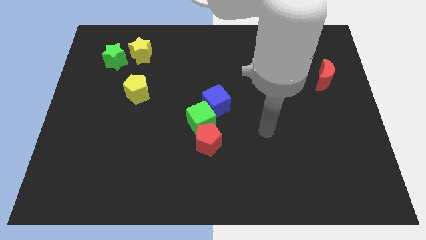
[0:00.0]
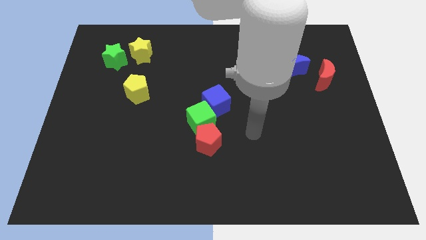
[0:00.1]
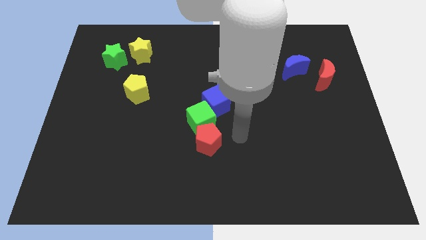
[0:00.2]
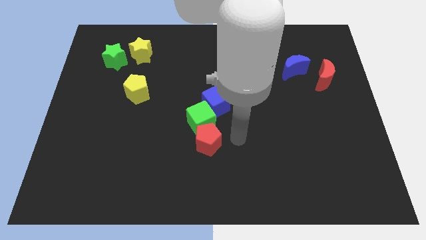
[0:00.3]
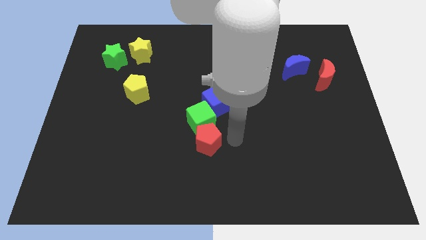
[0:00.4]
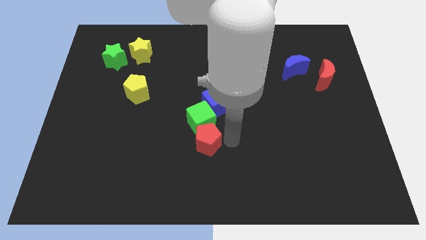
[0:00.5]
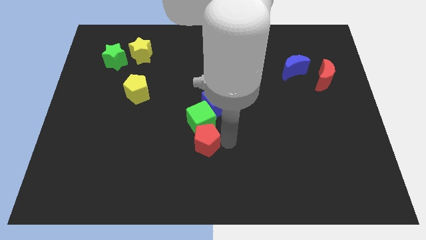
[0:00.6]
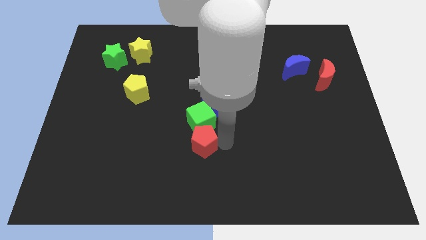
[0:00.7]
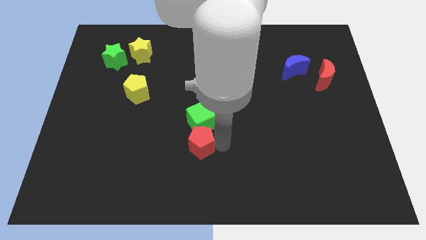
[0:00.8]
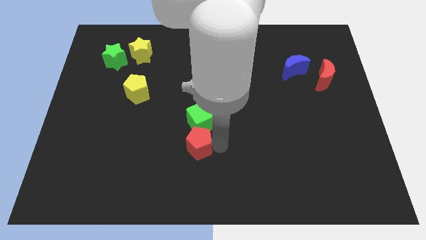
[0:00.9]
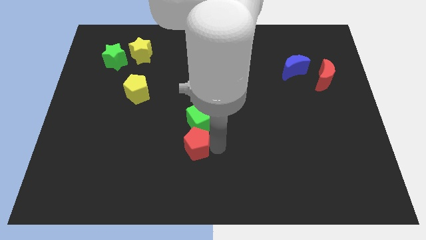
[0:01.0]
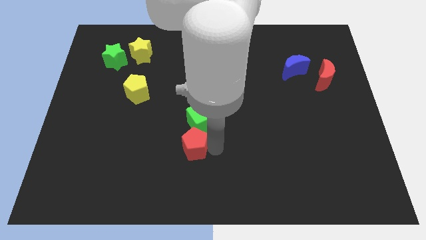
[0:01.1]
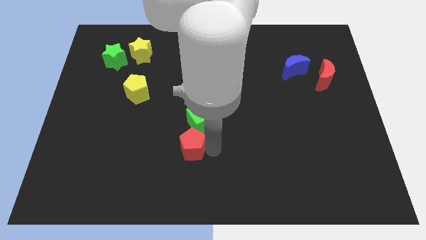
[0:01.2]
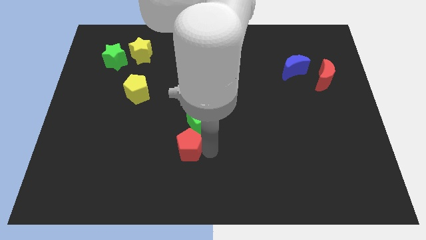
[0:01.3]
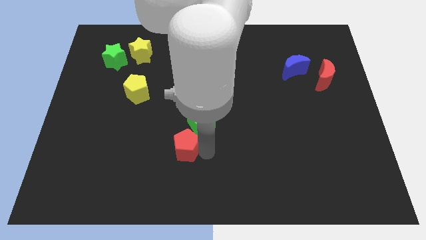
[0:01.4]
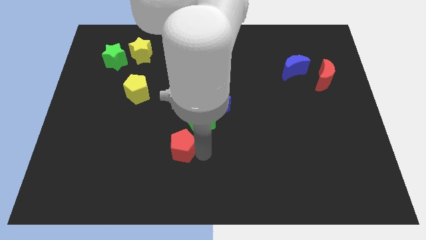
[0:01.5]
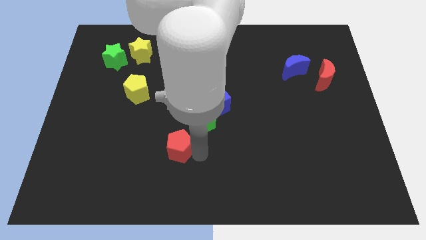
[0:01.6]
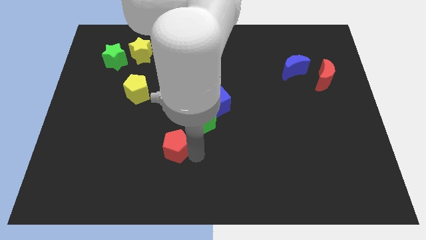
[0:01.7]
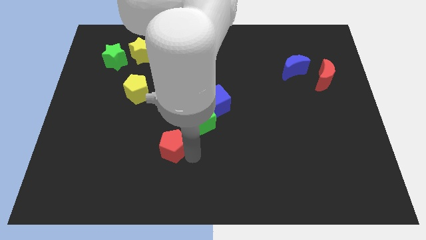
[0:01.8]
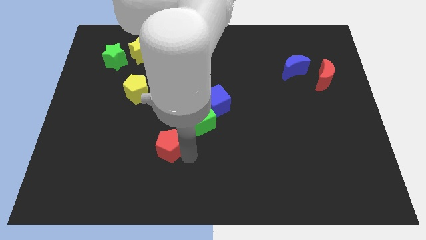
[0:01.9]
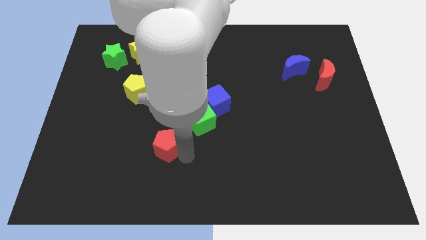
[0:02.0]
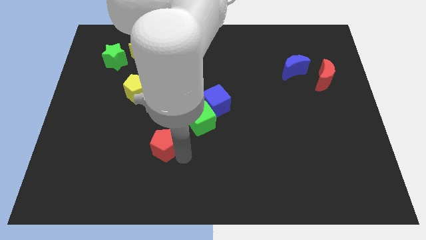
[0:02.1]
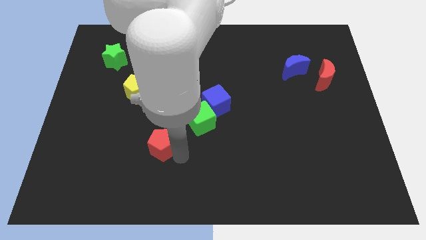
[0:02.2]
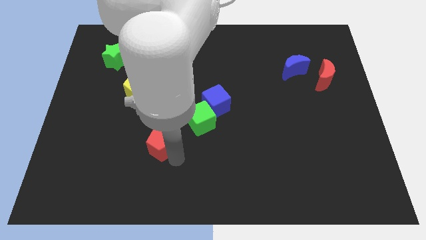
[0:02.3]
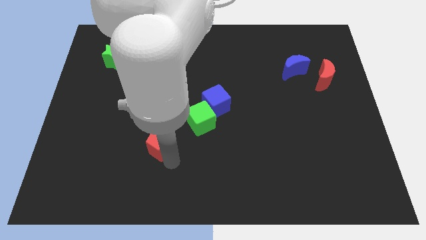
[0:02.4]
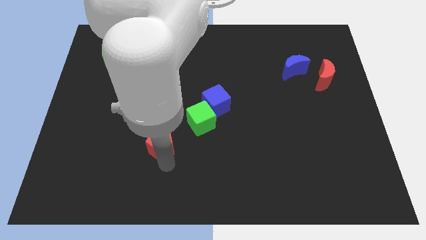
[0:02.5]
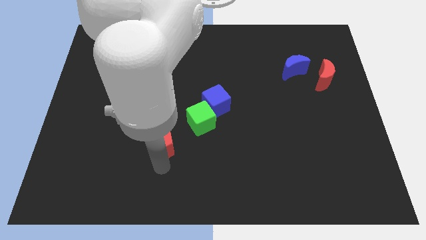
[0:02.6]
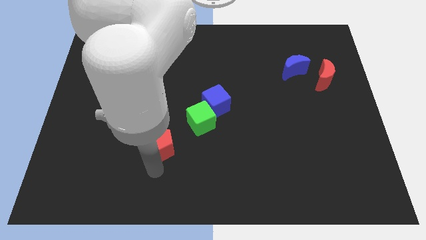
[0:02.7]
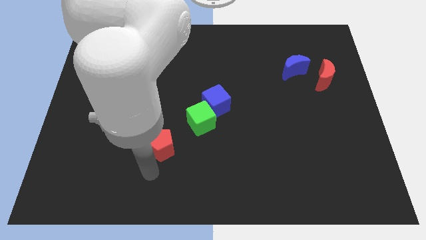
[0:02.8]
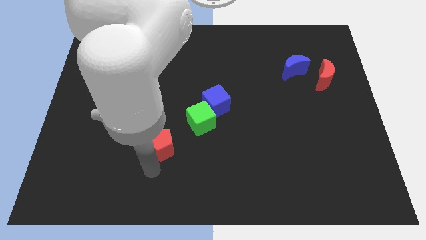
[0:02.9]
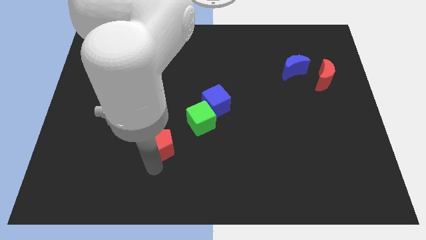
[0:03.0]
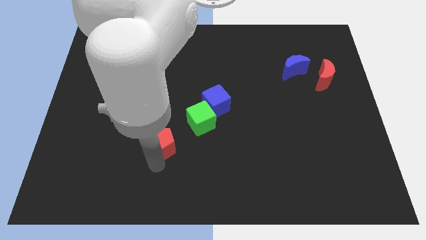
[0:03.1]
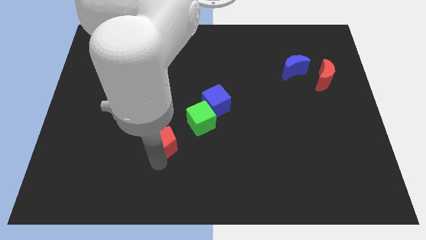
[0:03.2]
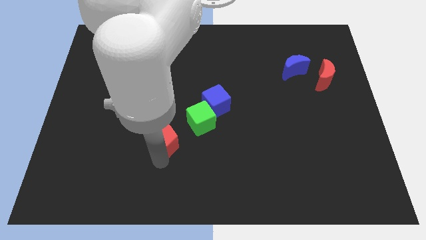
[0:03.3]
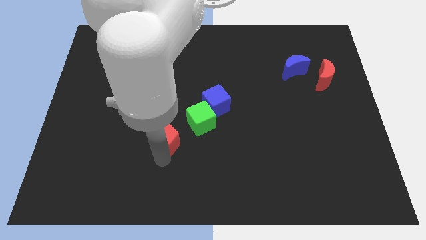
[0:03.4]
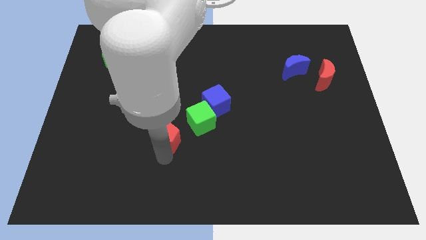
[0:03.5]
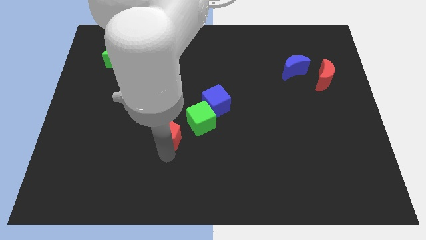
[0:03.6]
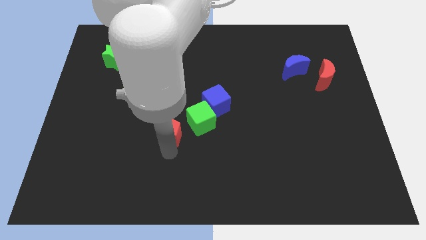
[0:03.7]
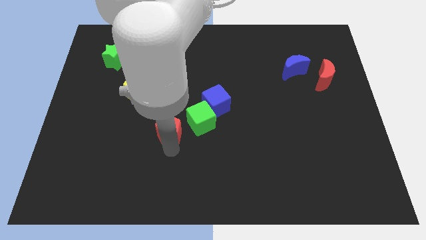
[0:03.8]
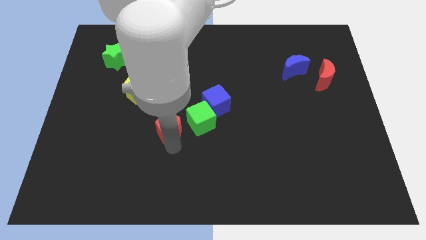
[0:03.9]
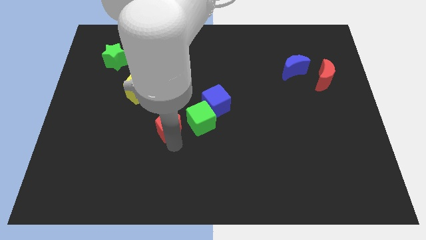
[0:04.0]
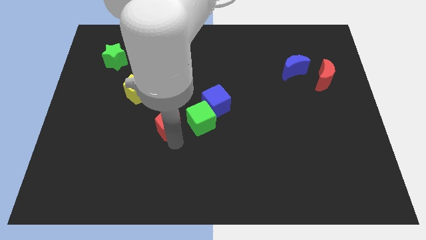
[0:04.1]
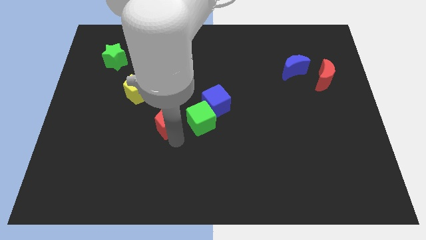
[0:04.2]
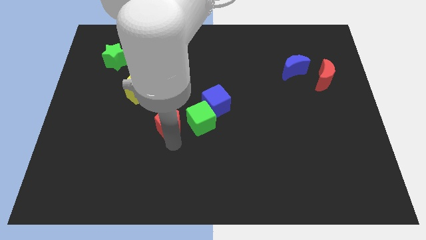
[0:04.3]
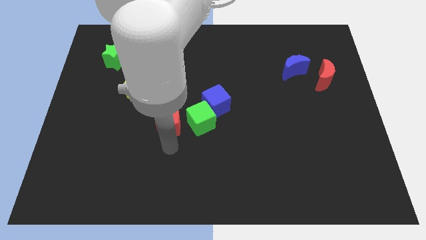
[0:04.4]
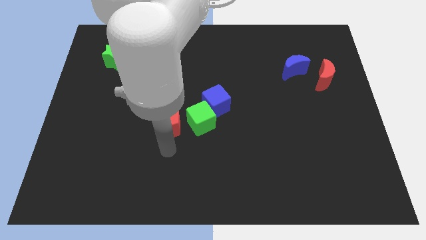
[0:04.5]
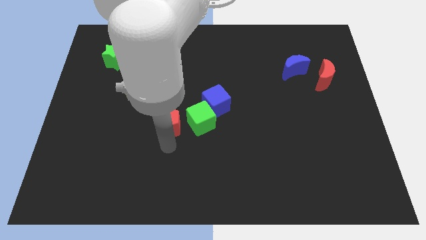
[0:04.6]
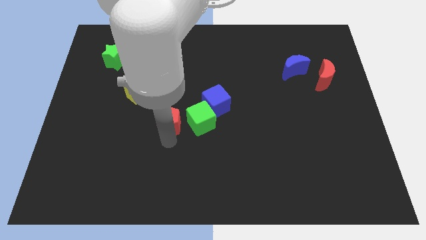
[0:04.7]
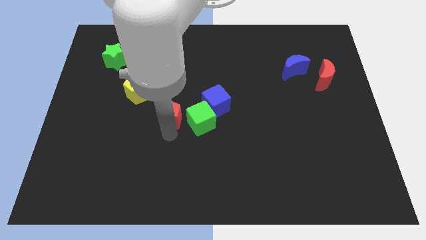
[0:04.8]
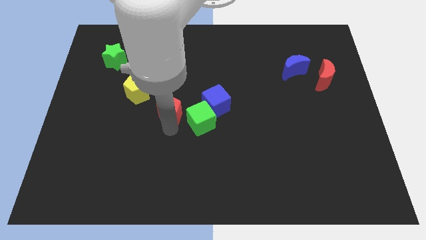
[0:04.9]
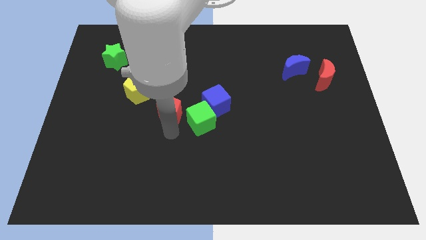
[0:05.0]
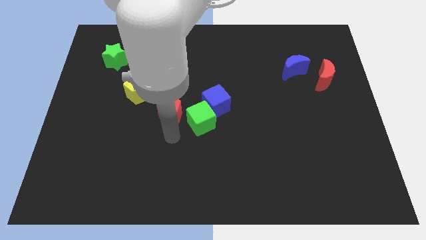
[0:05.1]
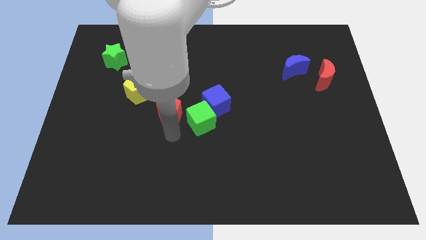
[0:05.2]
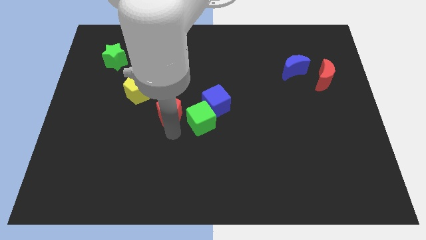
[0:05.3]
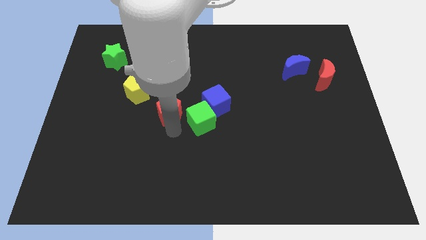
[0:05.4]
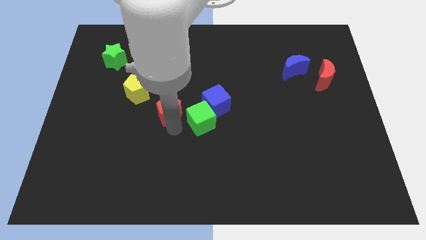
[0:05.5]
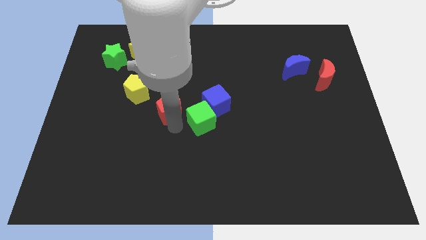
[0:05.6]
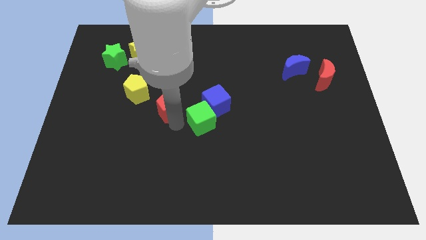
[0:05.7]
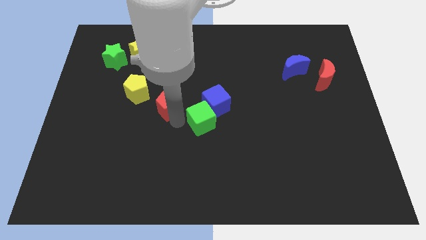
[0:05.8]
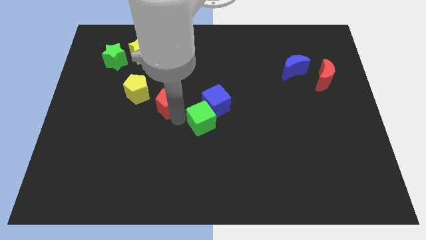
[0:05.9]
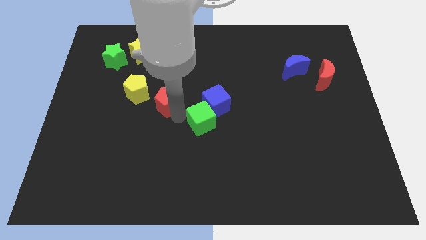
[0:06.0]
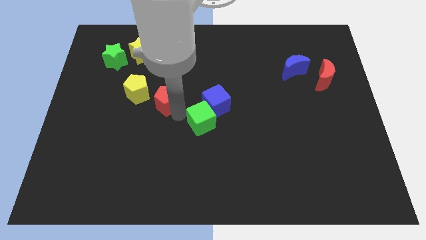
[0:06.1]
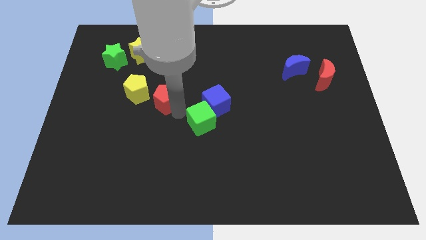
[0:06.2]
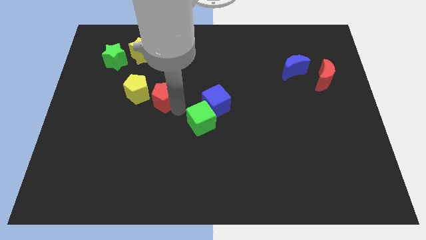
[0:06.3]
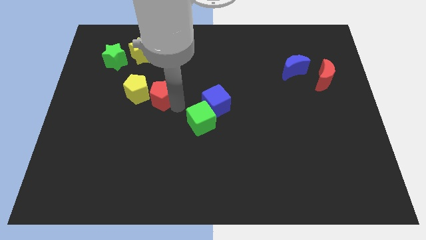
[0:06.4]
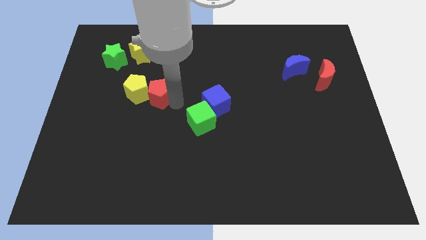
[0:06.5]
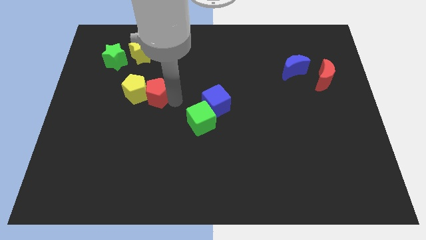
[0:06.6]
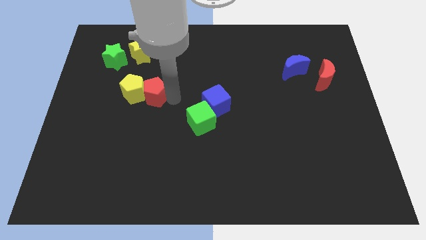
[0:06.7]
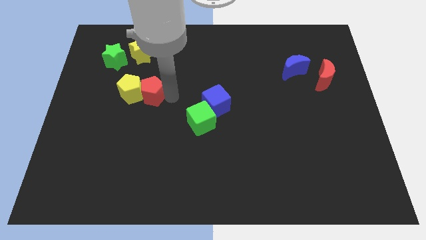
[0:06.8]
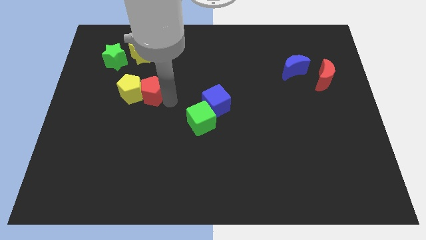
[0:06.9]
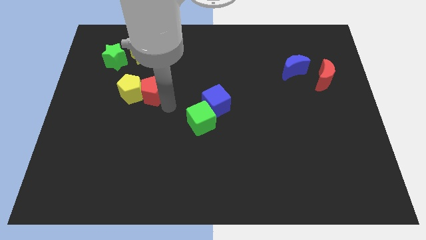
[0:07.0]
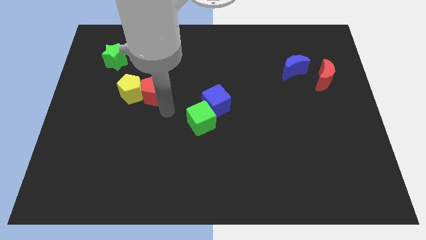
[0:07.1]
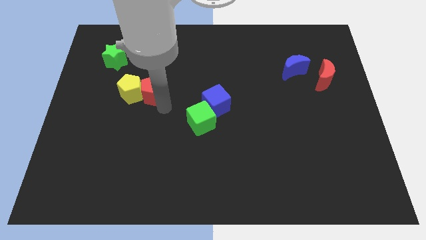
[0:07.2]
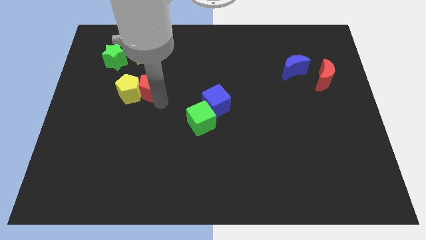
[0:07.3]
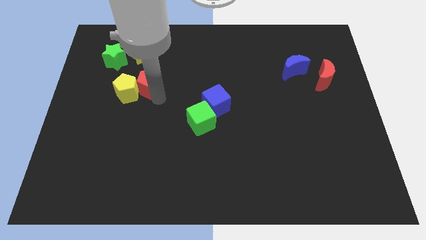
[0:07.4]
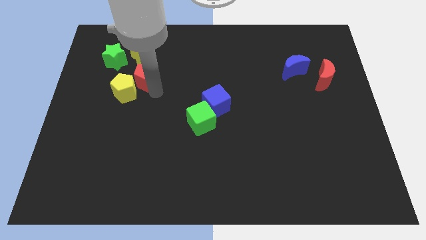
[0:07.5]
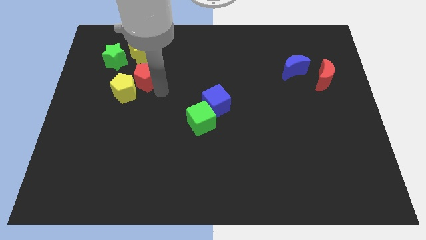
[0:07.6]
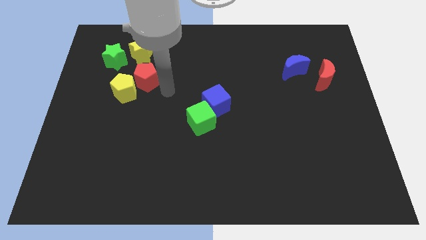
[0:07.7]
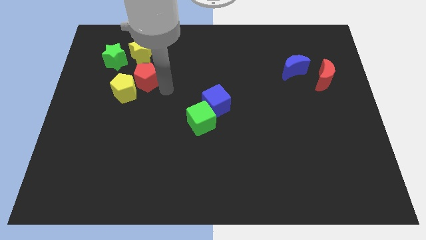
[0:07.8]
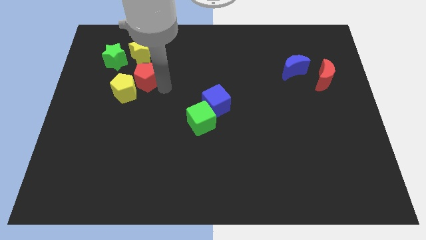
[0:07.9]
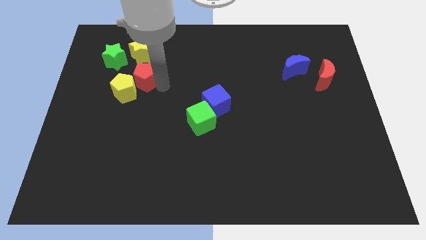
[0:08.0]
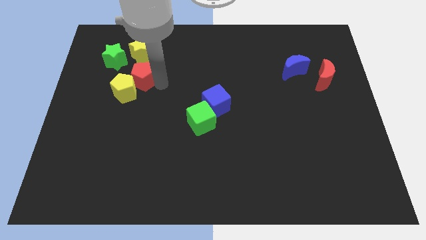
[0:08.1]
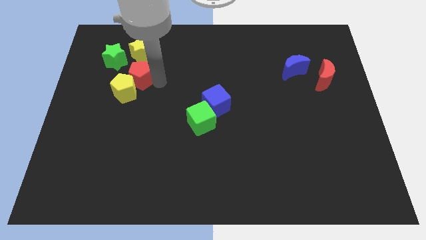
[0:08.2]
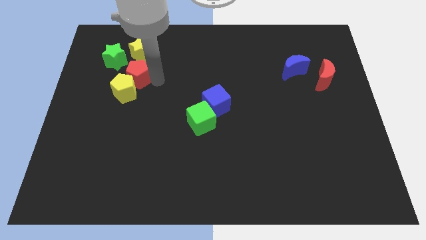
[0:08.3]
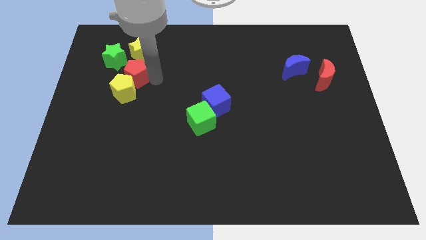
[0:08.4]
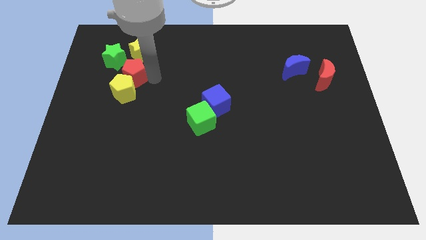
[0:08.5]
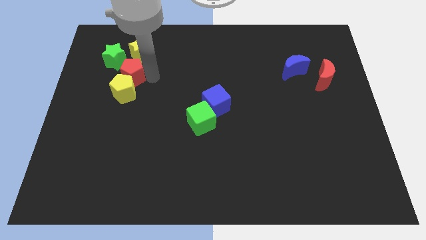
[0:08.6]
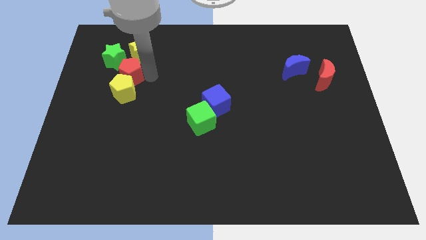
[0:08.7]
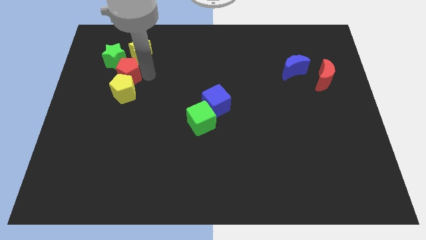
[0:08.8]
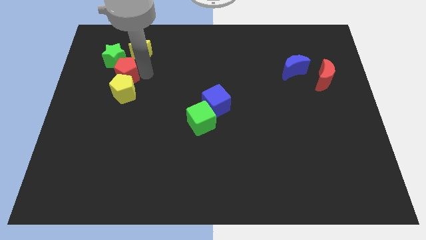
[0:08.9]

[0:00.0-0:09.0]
put the red pentagon next to the green star
